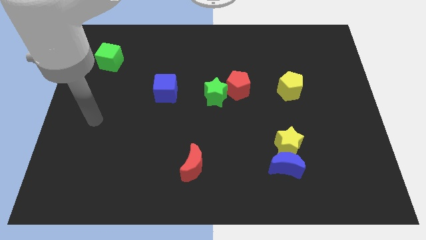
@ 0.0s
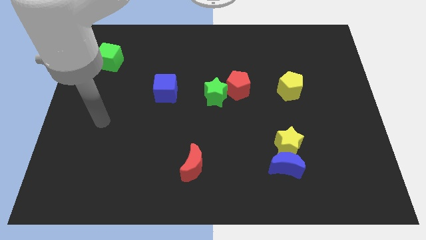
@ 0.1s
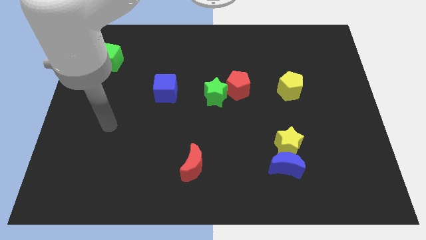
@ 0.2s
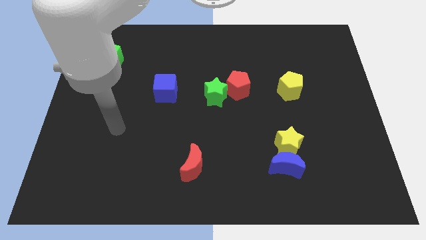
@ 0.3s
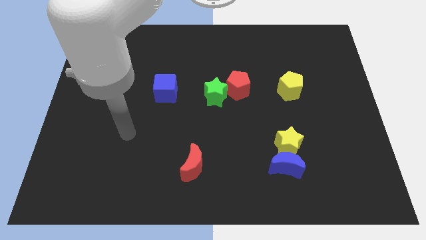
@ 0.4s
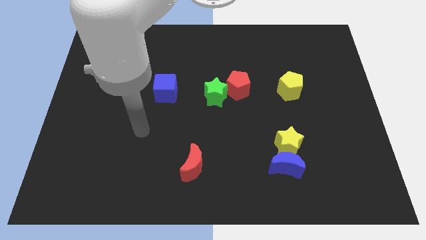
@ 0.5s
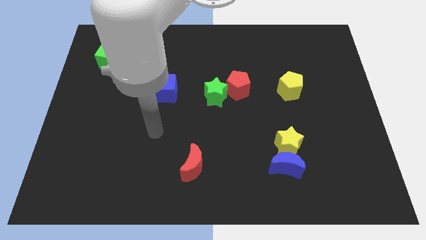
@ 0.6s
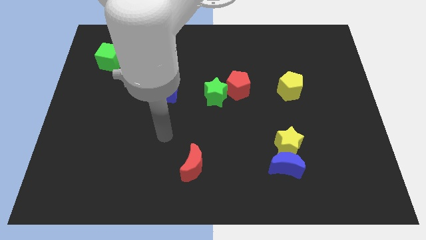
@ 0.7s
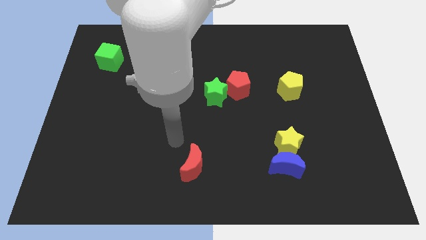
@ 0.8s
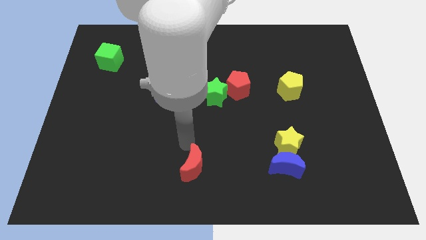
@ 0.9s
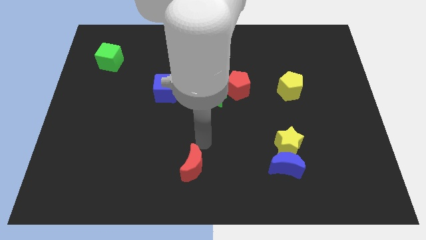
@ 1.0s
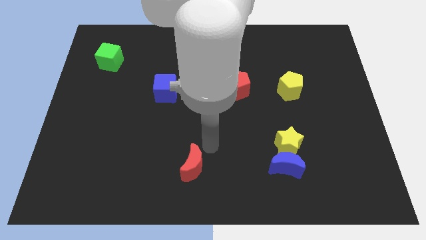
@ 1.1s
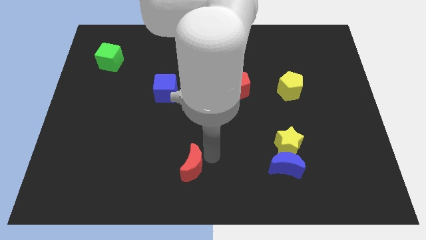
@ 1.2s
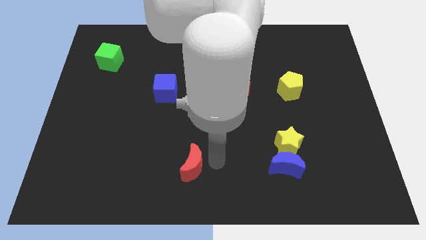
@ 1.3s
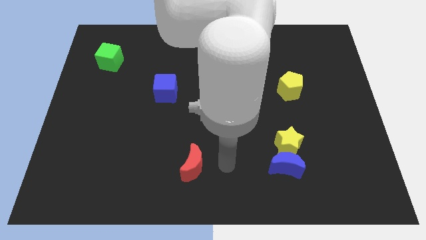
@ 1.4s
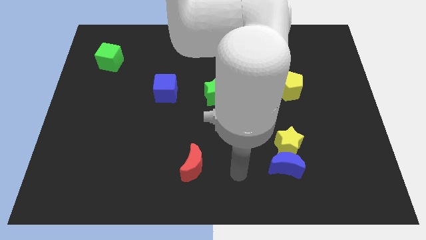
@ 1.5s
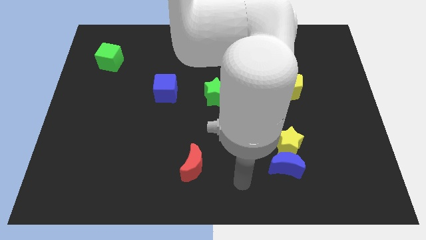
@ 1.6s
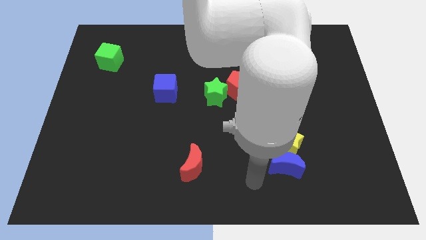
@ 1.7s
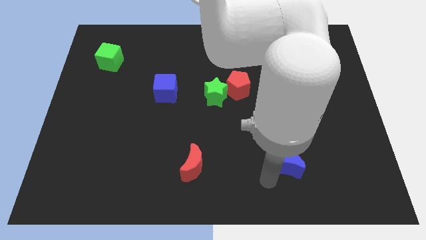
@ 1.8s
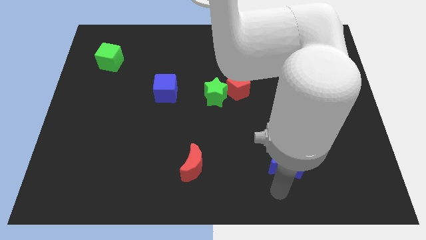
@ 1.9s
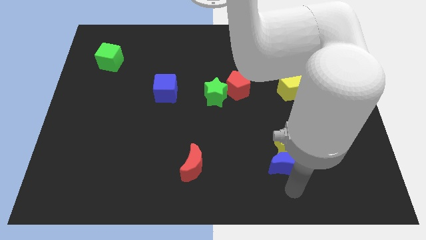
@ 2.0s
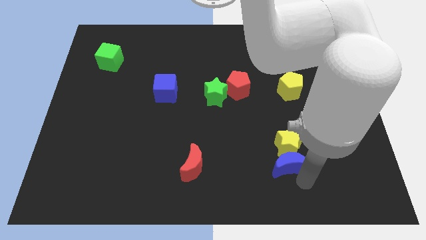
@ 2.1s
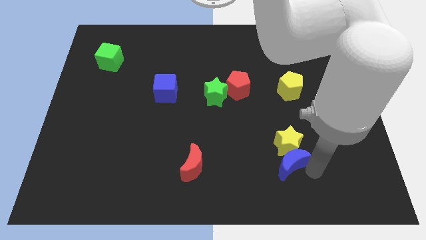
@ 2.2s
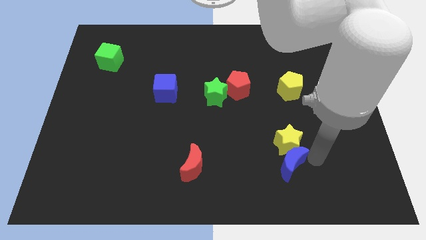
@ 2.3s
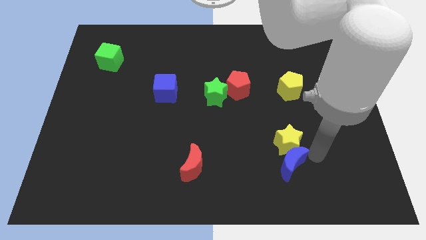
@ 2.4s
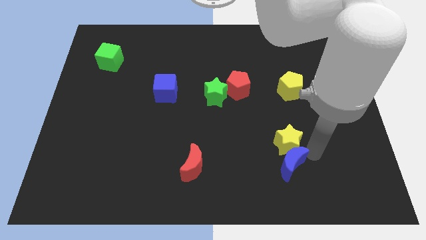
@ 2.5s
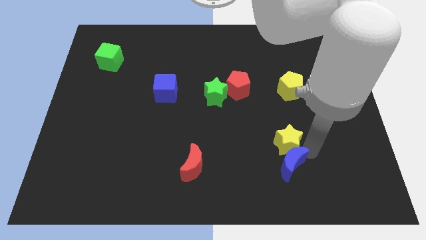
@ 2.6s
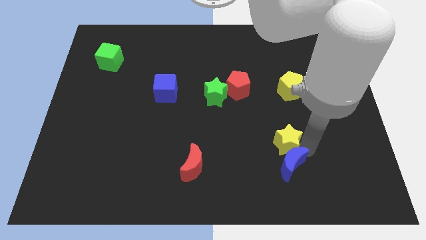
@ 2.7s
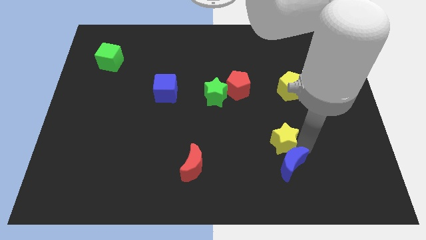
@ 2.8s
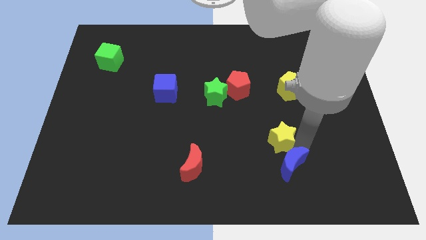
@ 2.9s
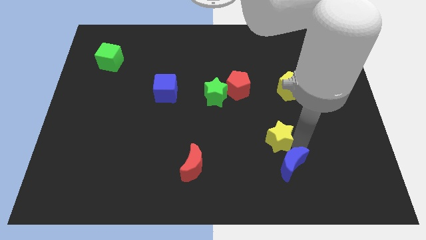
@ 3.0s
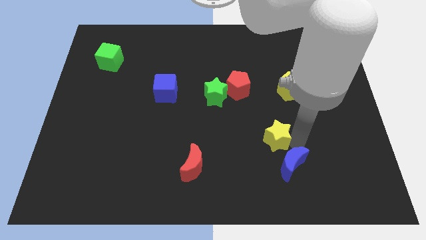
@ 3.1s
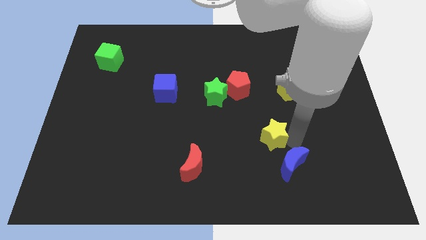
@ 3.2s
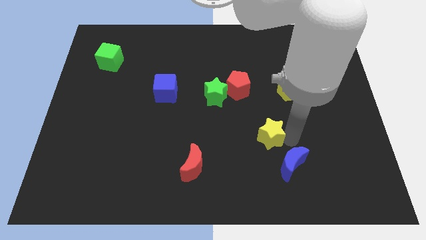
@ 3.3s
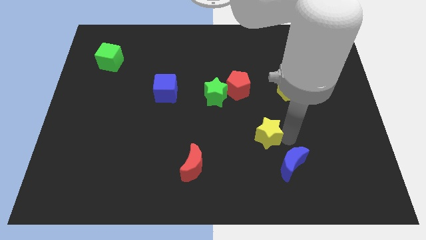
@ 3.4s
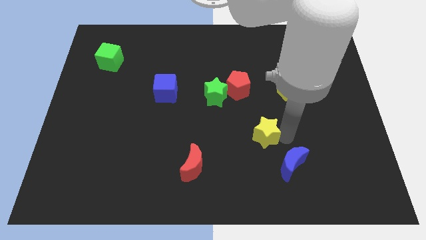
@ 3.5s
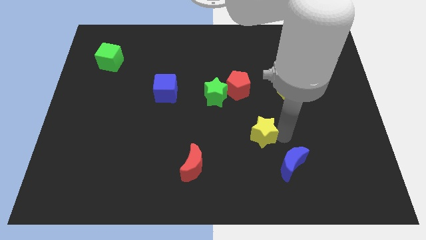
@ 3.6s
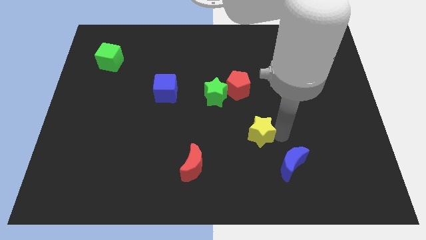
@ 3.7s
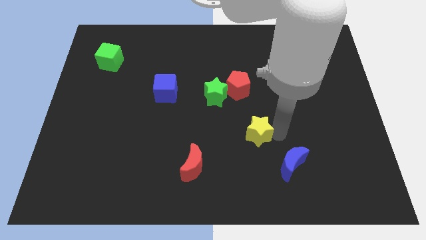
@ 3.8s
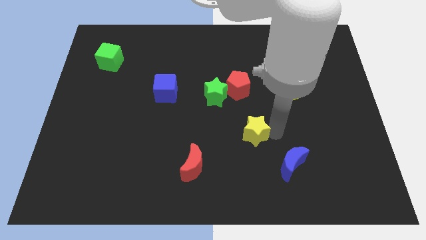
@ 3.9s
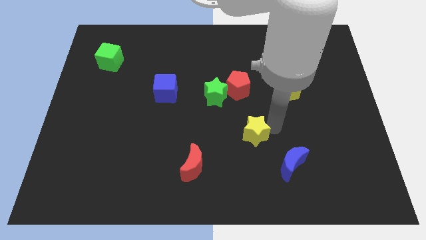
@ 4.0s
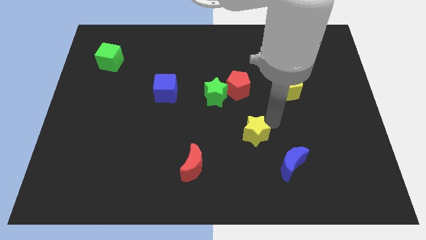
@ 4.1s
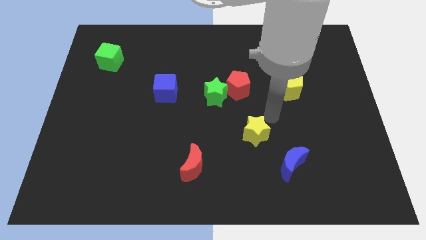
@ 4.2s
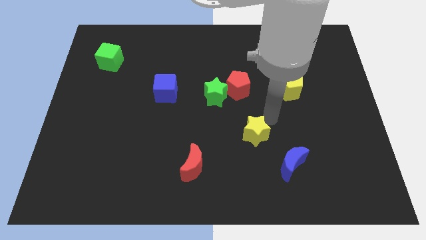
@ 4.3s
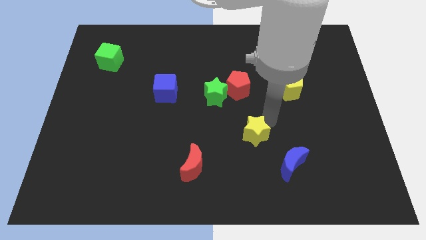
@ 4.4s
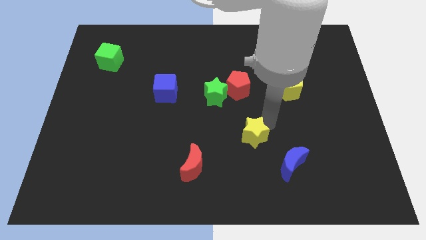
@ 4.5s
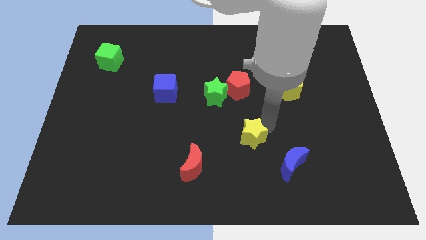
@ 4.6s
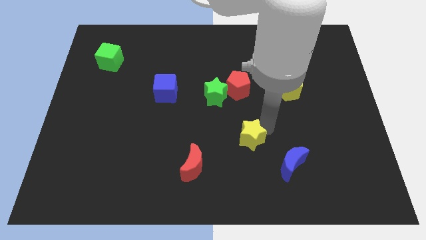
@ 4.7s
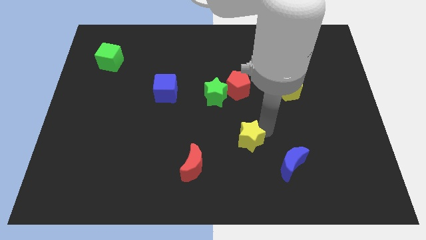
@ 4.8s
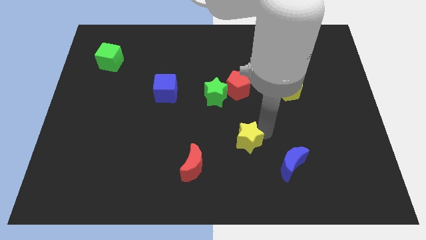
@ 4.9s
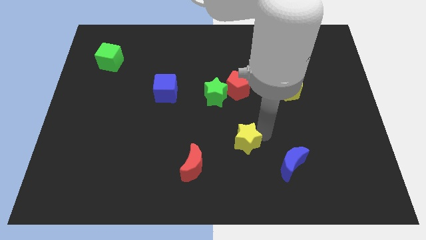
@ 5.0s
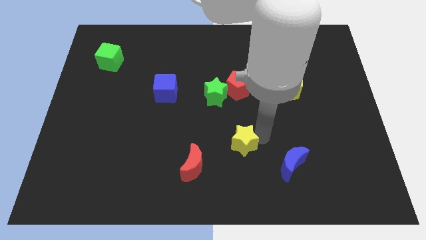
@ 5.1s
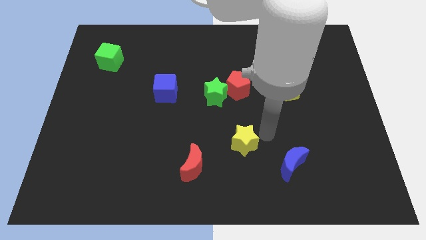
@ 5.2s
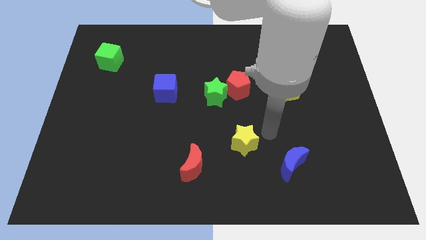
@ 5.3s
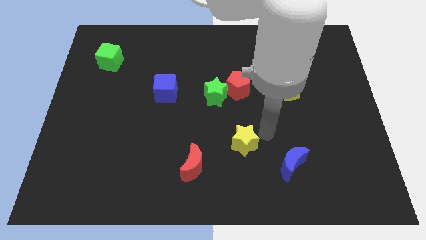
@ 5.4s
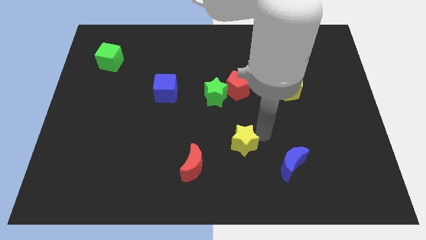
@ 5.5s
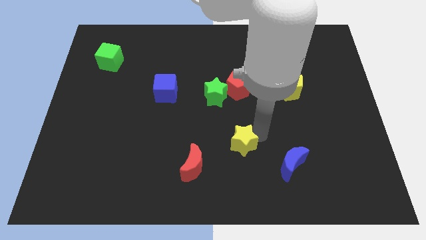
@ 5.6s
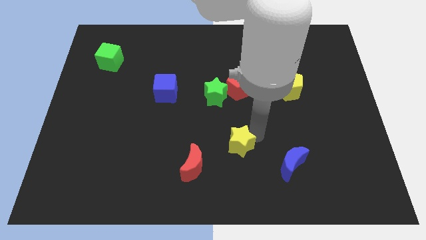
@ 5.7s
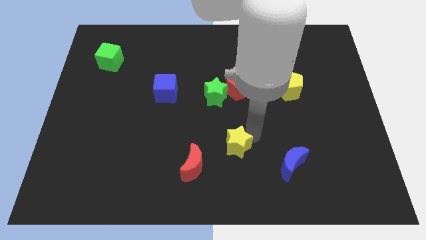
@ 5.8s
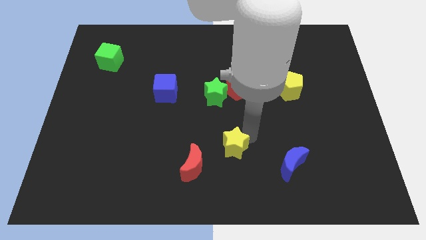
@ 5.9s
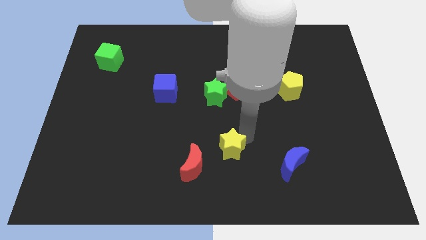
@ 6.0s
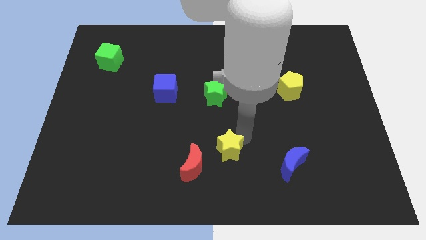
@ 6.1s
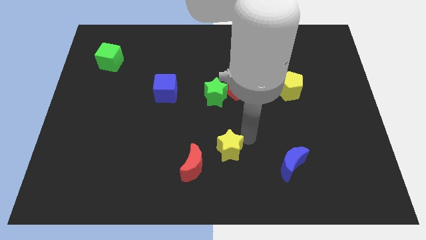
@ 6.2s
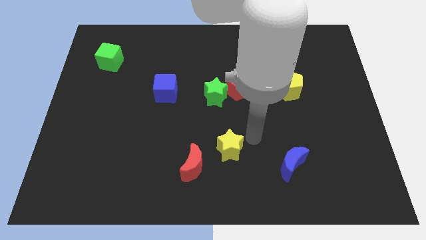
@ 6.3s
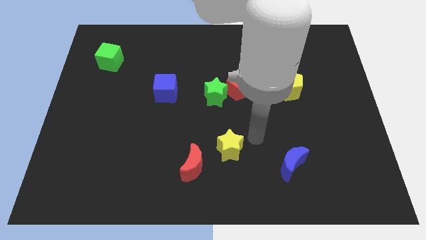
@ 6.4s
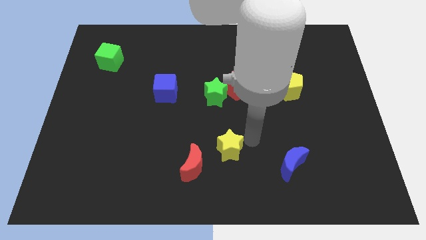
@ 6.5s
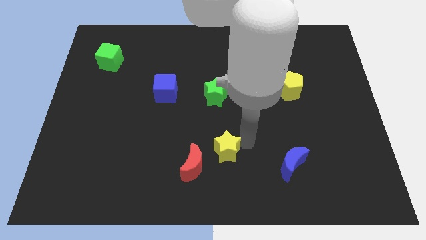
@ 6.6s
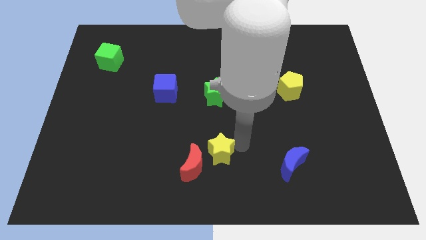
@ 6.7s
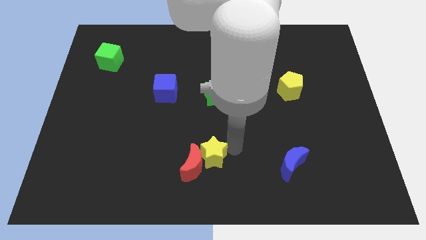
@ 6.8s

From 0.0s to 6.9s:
slide the yellow star to the red moon

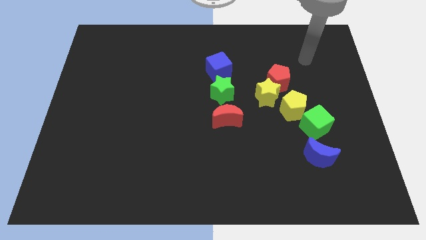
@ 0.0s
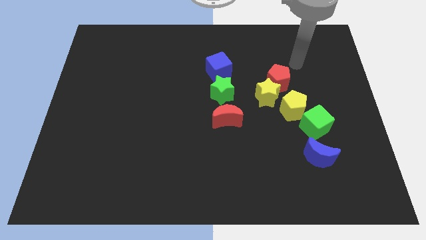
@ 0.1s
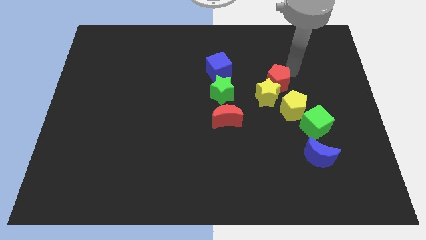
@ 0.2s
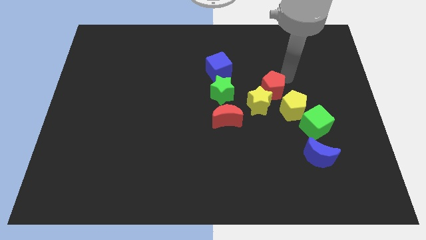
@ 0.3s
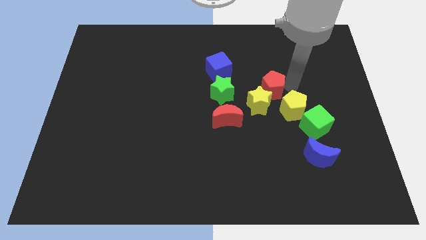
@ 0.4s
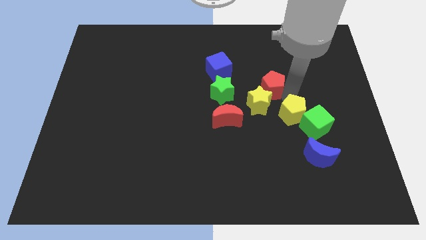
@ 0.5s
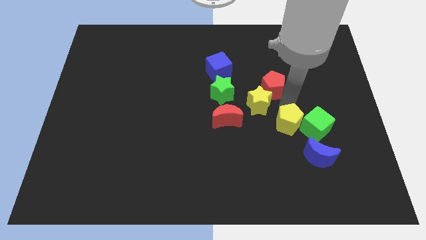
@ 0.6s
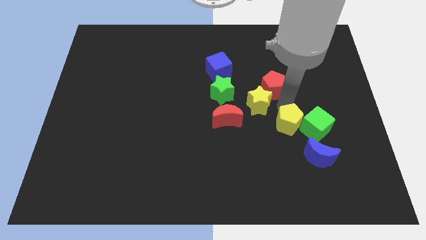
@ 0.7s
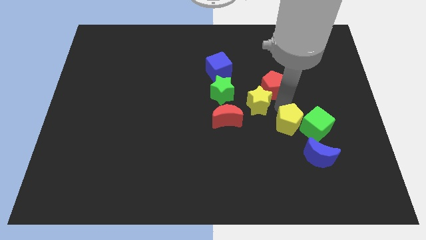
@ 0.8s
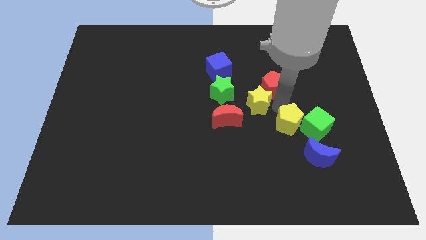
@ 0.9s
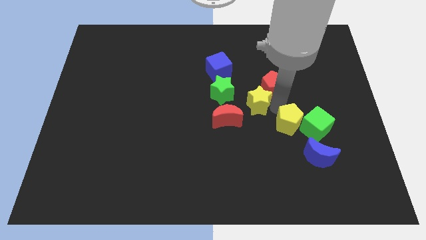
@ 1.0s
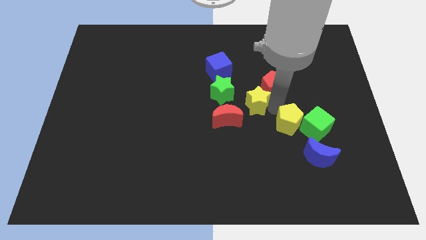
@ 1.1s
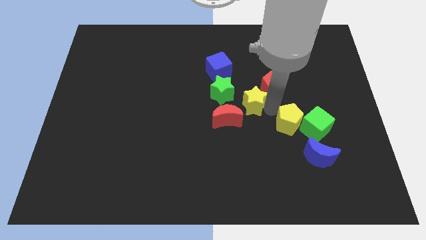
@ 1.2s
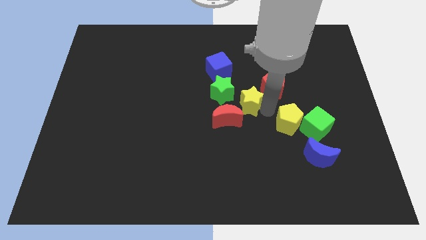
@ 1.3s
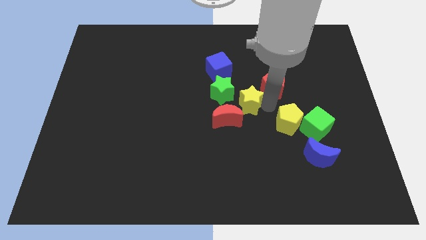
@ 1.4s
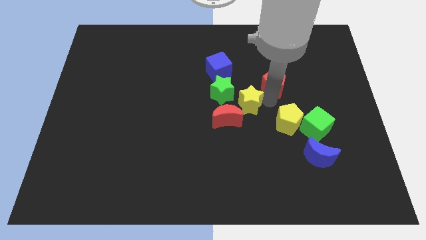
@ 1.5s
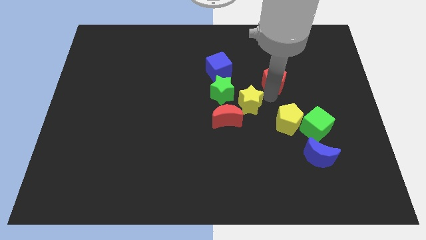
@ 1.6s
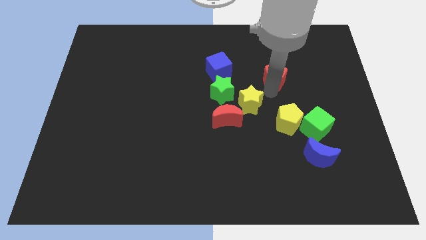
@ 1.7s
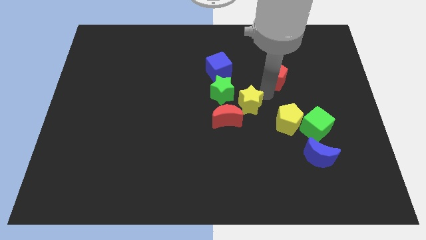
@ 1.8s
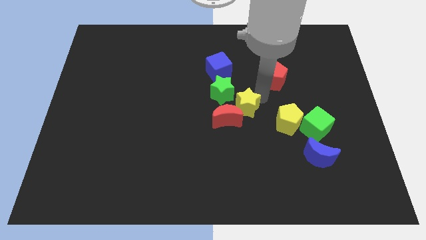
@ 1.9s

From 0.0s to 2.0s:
move the yellow star towards the red moon
